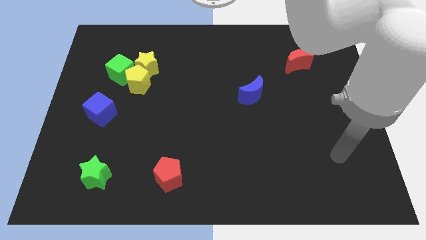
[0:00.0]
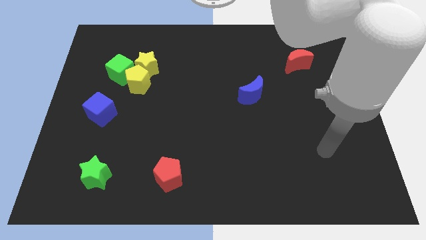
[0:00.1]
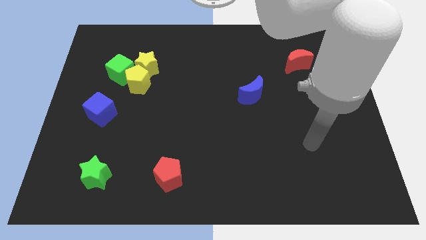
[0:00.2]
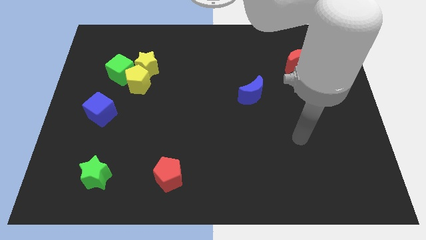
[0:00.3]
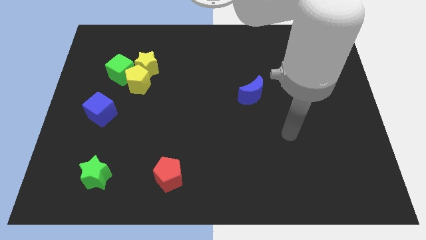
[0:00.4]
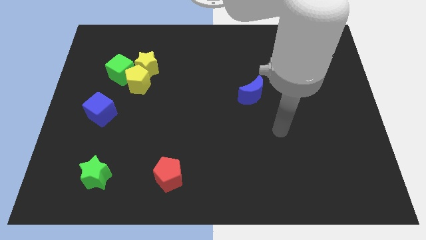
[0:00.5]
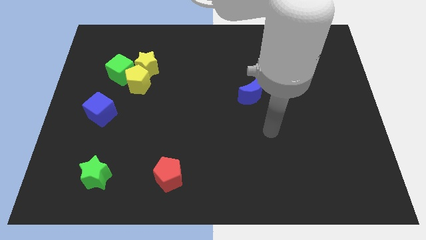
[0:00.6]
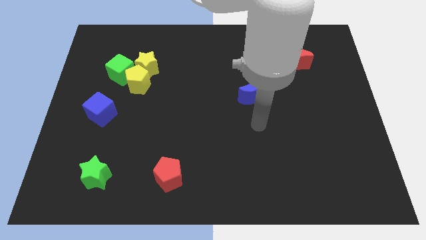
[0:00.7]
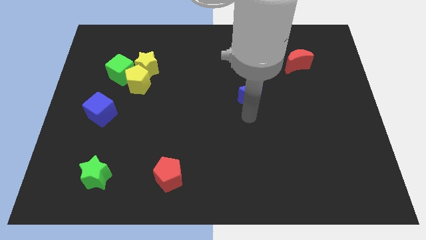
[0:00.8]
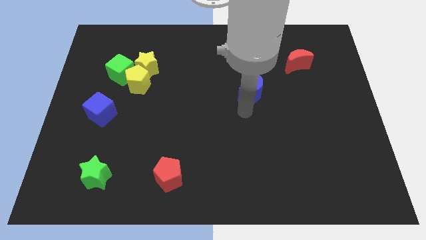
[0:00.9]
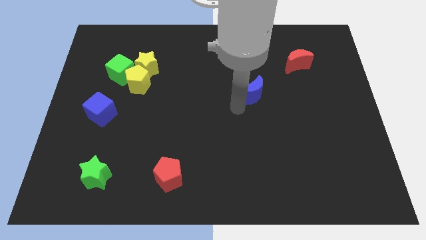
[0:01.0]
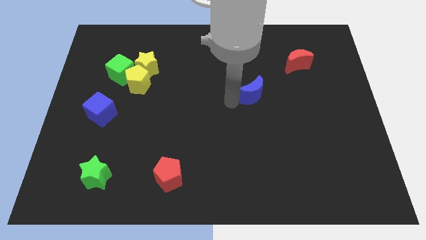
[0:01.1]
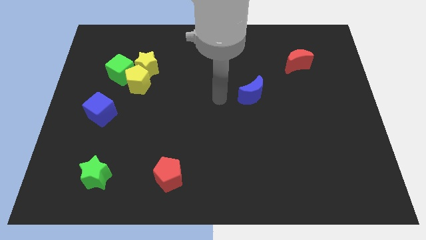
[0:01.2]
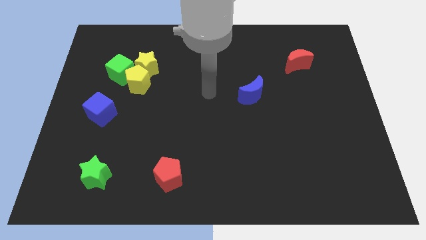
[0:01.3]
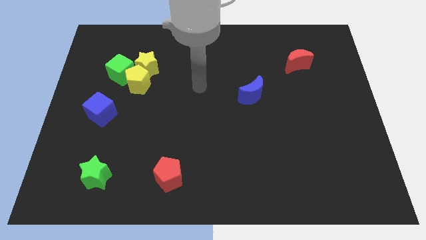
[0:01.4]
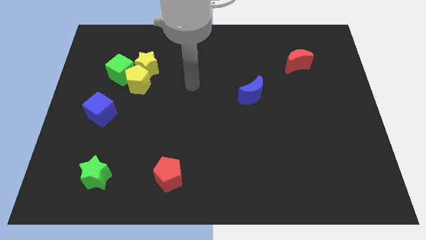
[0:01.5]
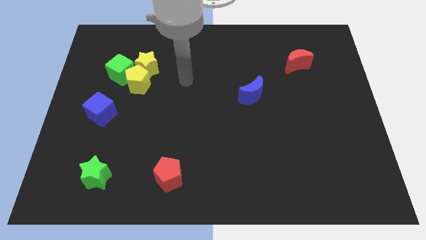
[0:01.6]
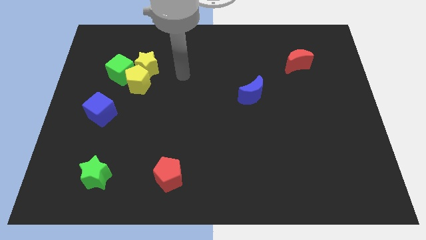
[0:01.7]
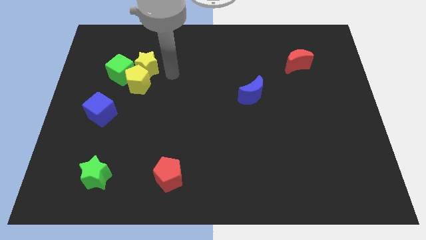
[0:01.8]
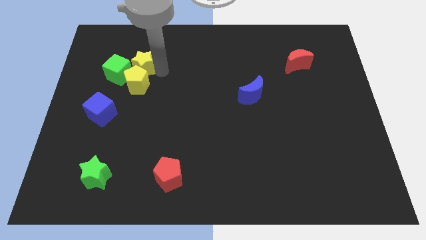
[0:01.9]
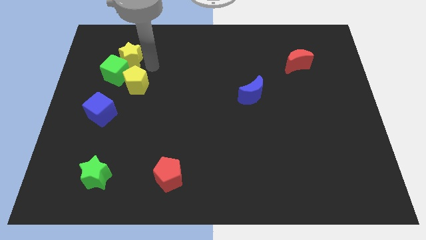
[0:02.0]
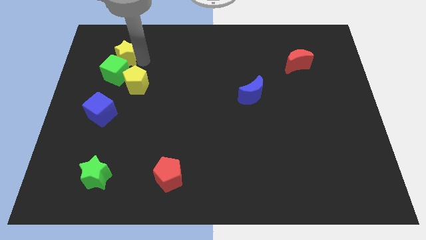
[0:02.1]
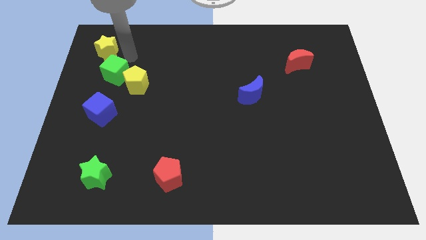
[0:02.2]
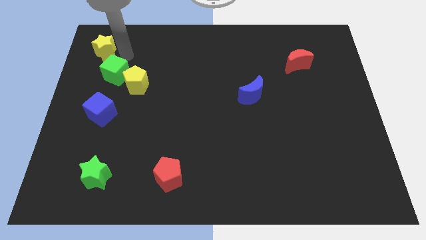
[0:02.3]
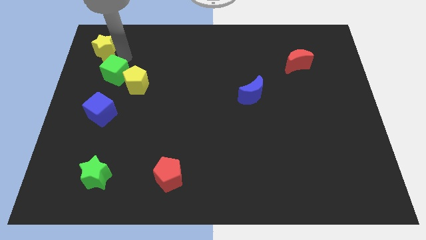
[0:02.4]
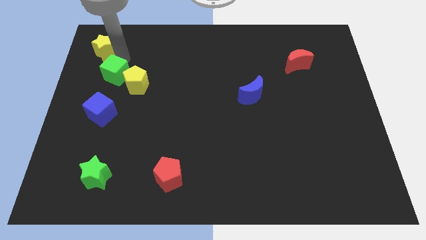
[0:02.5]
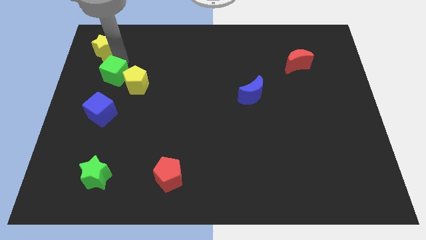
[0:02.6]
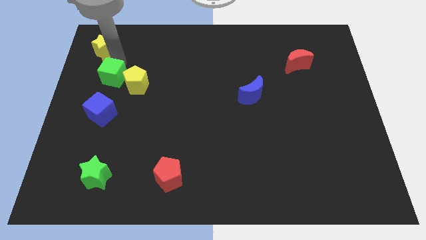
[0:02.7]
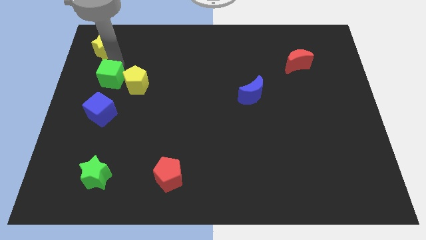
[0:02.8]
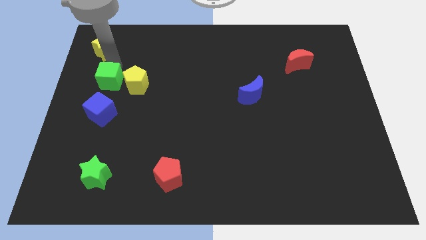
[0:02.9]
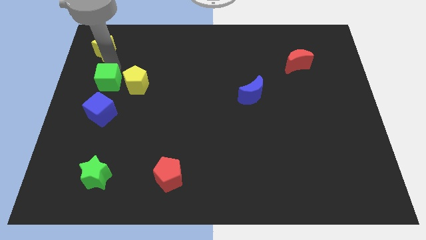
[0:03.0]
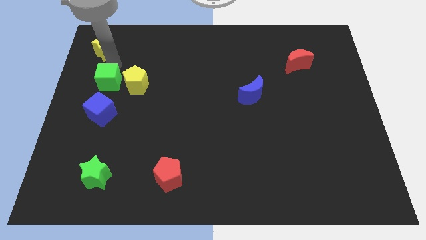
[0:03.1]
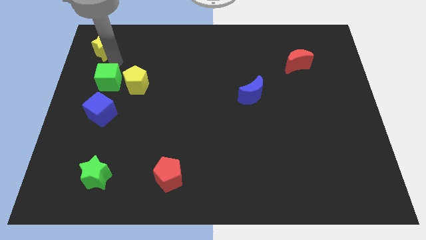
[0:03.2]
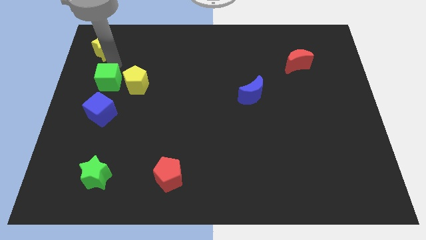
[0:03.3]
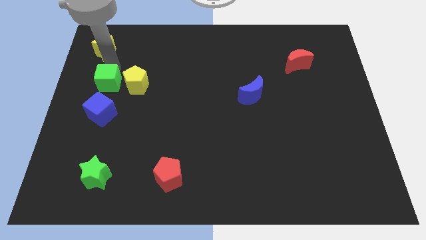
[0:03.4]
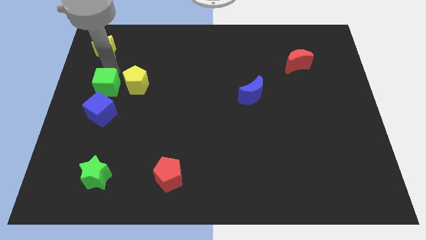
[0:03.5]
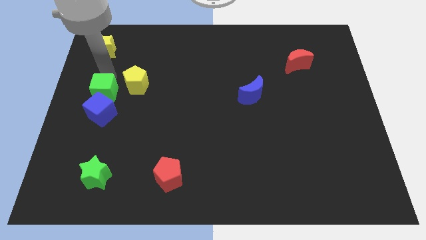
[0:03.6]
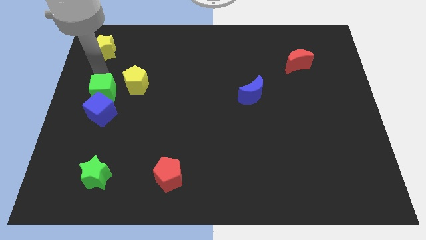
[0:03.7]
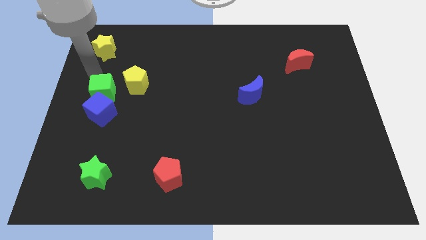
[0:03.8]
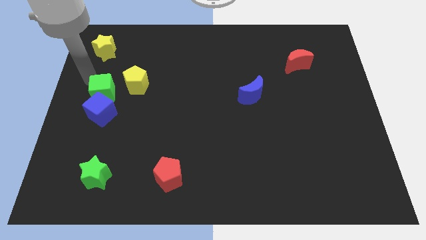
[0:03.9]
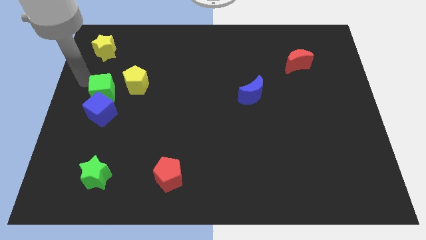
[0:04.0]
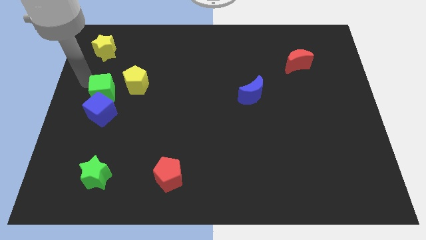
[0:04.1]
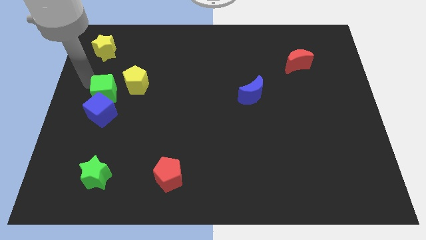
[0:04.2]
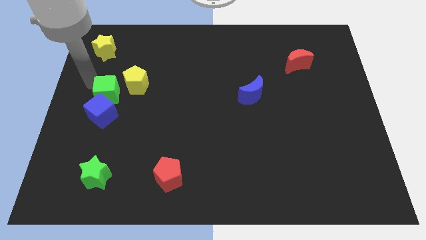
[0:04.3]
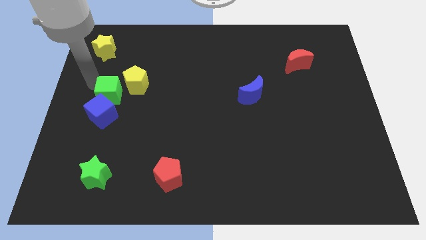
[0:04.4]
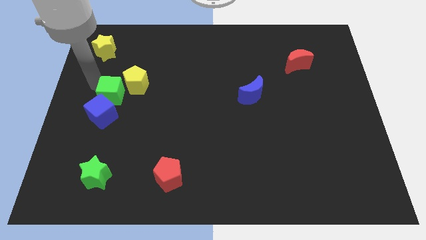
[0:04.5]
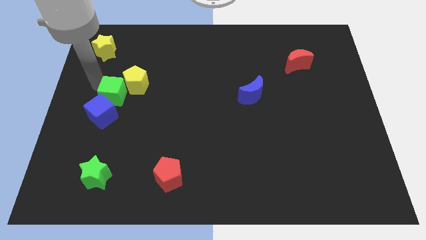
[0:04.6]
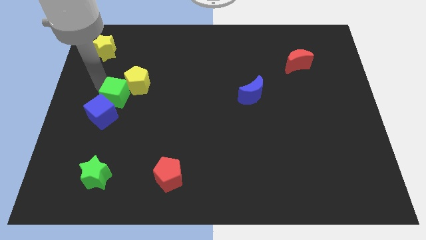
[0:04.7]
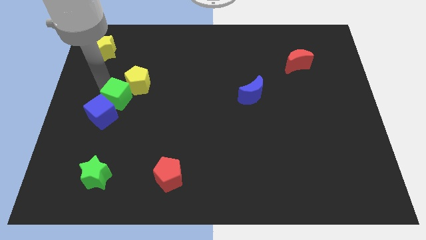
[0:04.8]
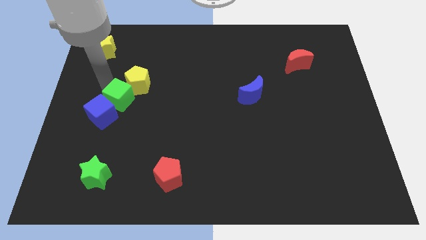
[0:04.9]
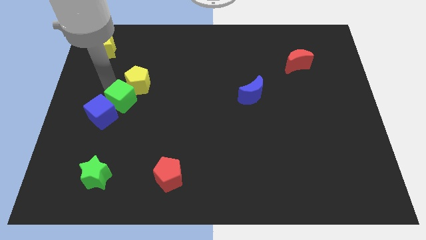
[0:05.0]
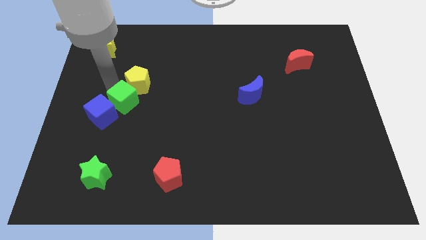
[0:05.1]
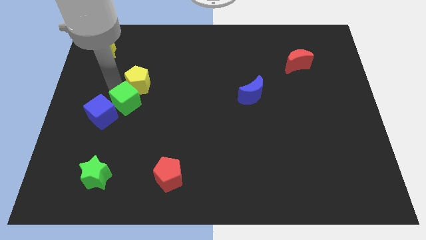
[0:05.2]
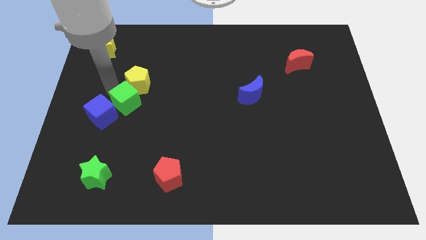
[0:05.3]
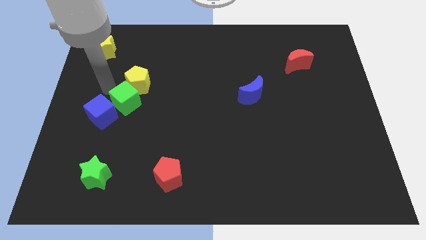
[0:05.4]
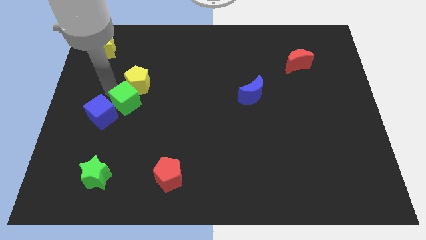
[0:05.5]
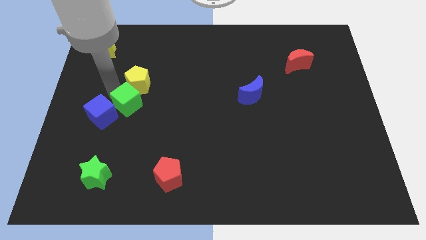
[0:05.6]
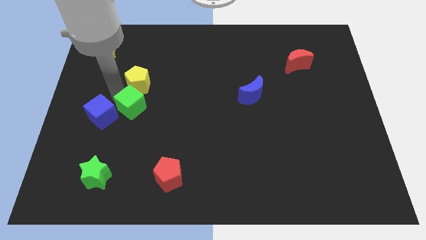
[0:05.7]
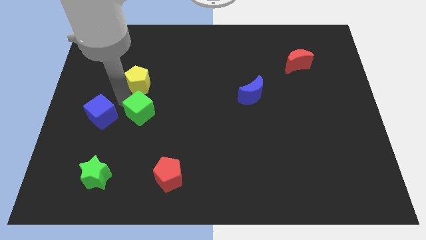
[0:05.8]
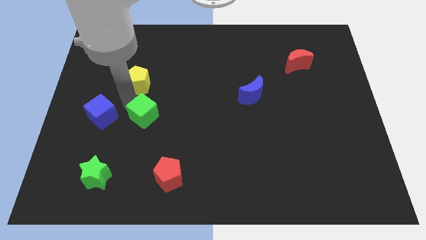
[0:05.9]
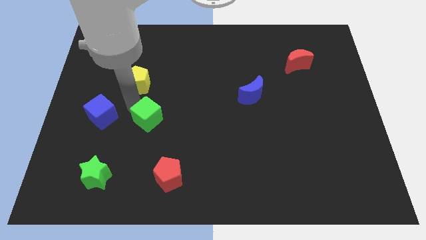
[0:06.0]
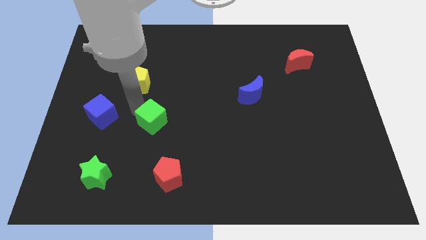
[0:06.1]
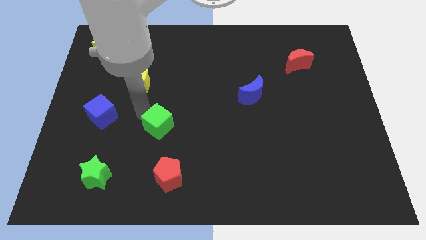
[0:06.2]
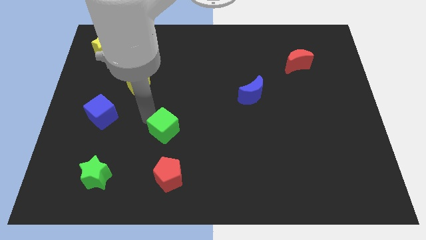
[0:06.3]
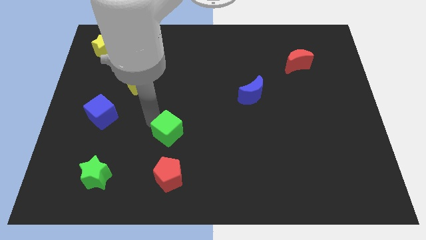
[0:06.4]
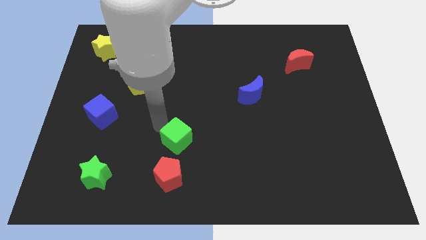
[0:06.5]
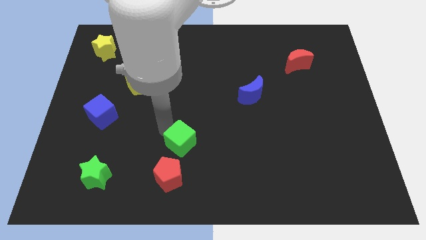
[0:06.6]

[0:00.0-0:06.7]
move the green cube to the top right of the red pentagon

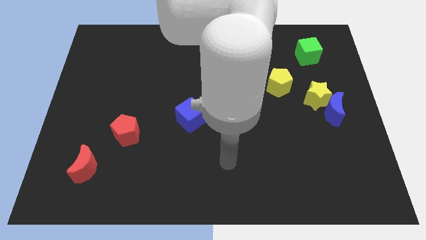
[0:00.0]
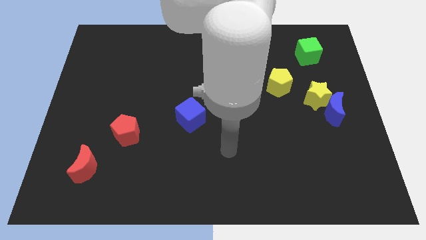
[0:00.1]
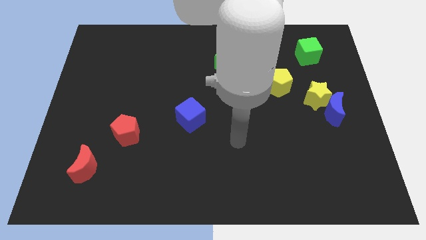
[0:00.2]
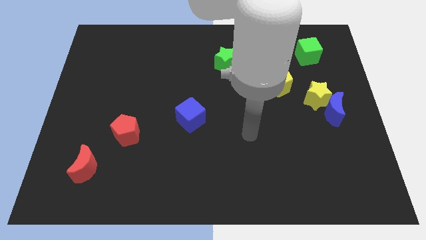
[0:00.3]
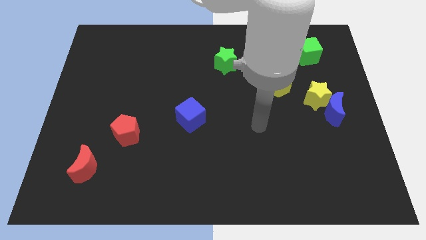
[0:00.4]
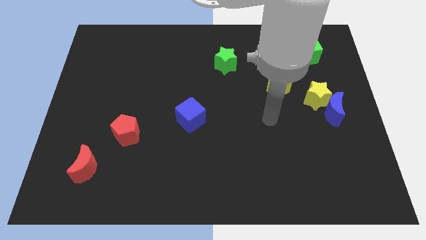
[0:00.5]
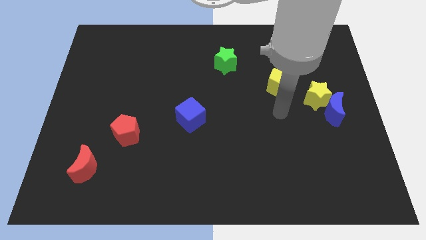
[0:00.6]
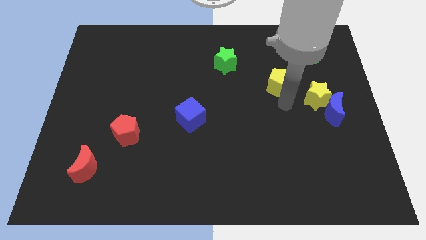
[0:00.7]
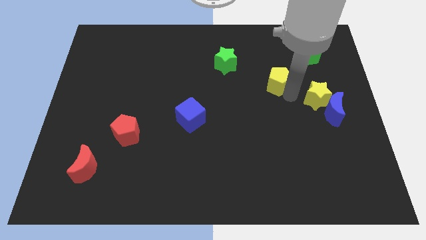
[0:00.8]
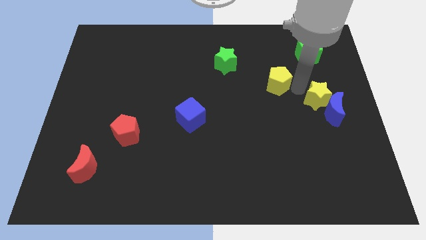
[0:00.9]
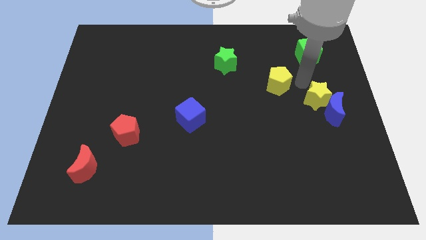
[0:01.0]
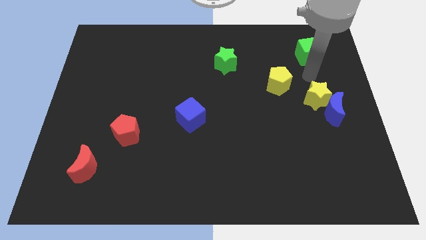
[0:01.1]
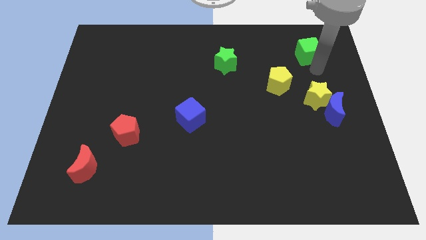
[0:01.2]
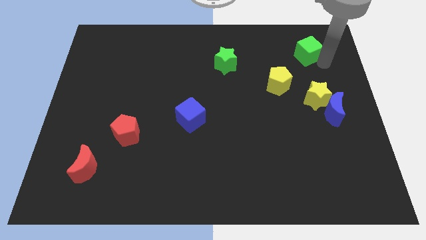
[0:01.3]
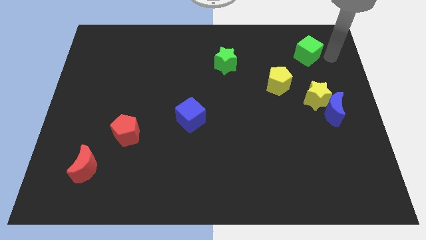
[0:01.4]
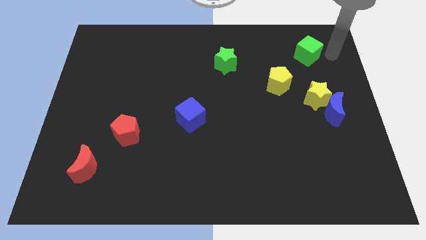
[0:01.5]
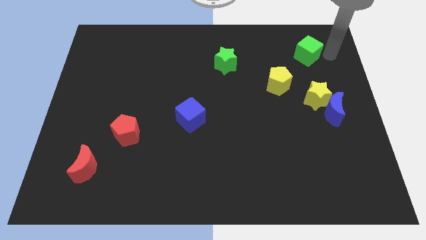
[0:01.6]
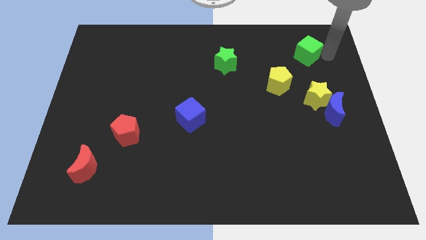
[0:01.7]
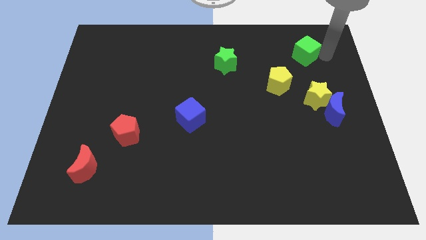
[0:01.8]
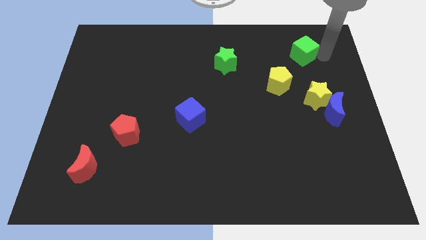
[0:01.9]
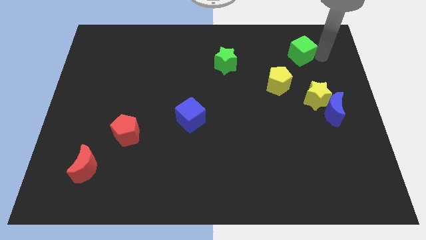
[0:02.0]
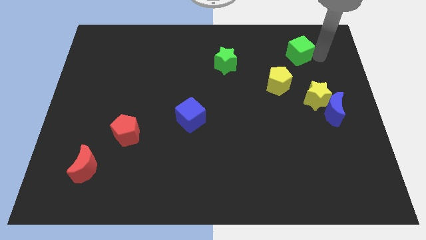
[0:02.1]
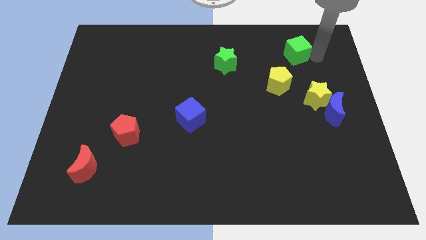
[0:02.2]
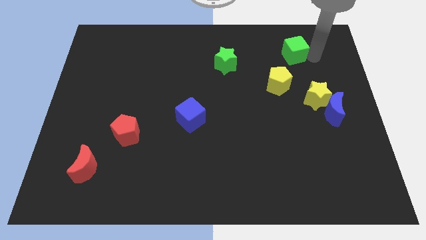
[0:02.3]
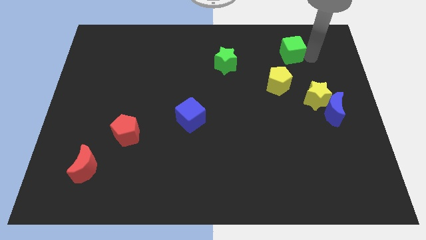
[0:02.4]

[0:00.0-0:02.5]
put the green cube to the top side of the yellow pentagon
